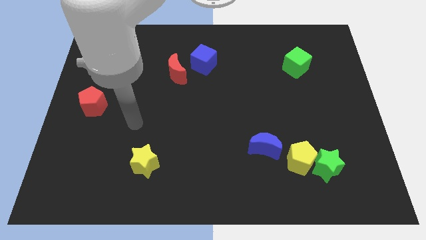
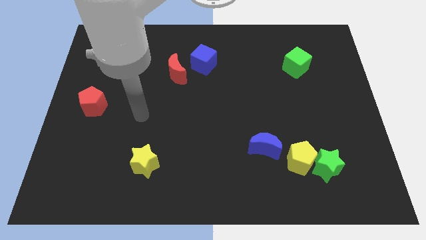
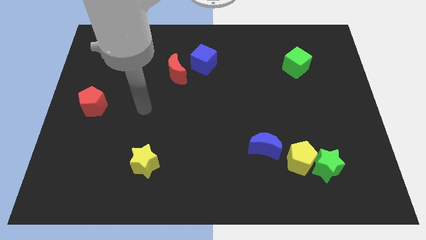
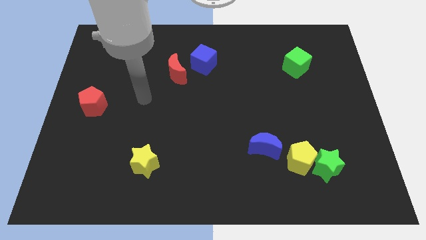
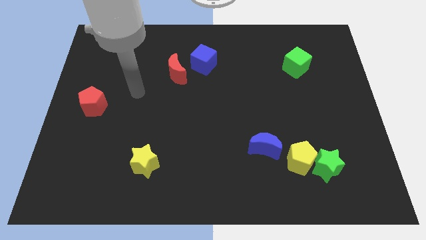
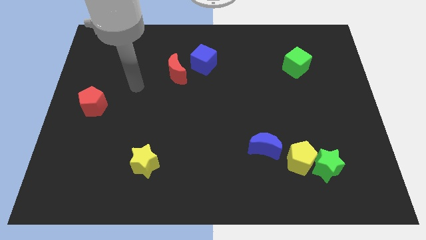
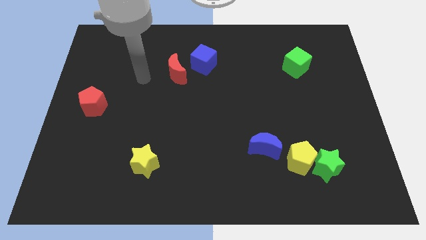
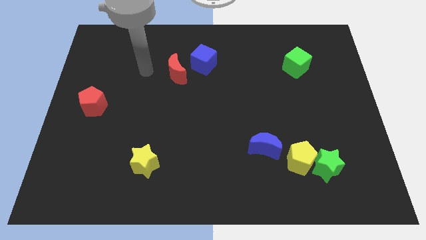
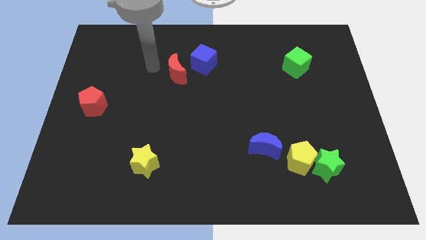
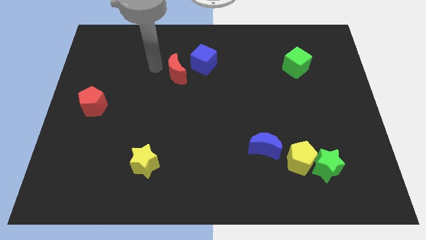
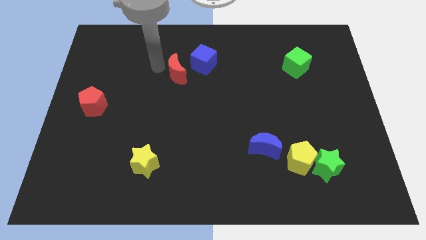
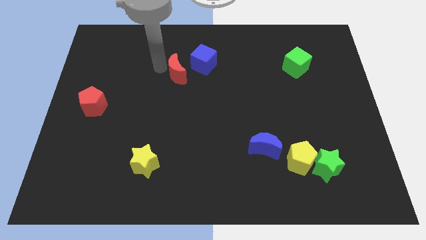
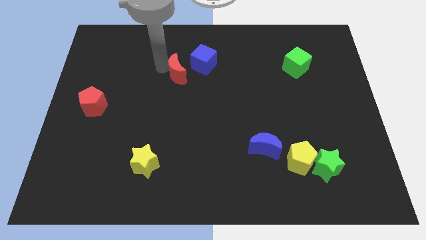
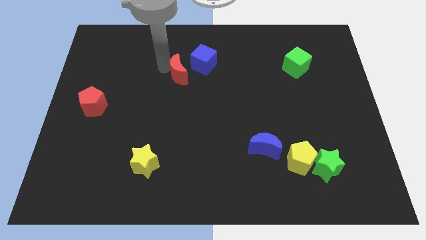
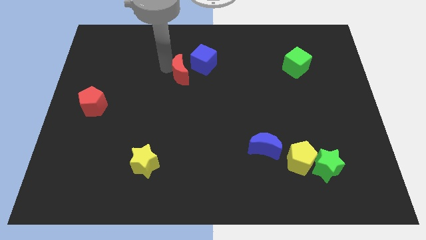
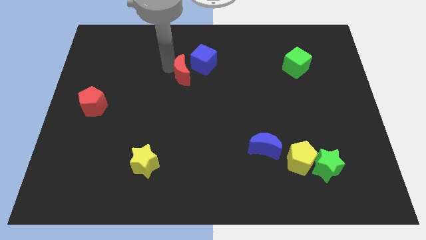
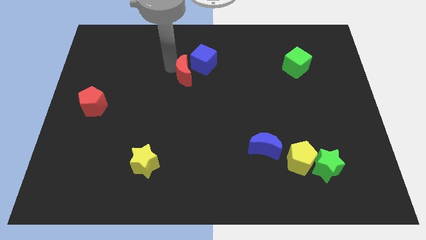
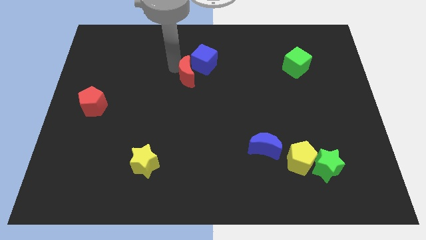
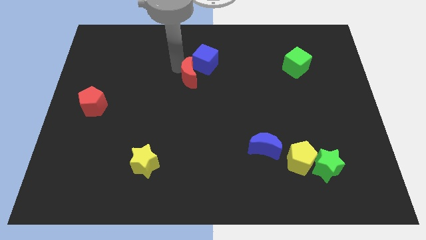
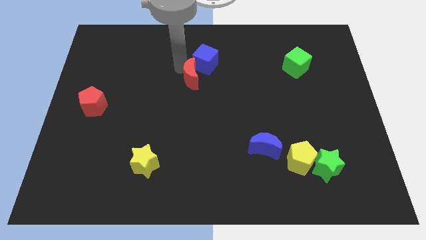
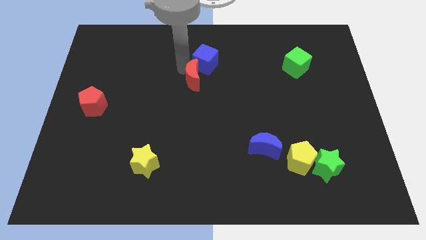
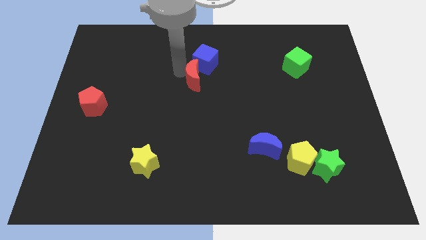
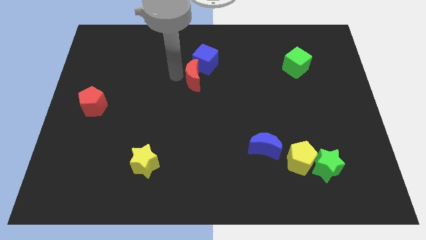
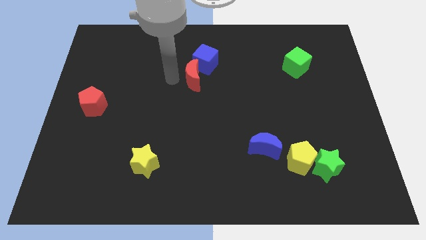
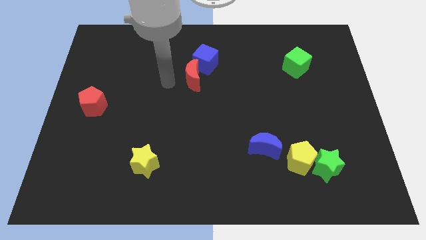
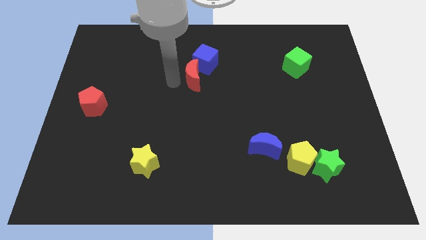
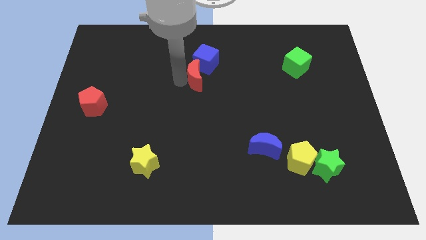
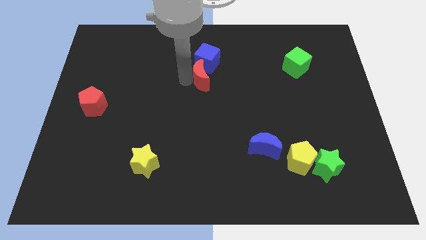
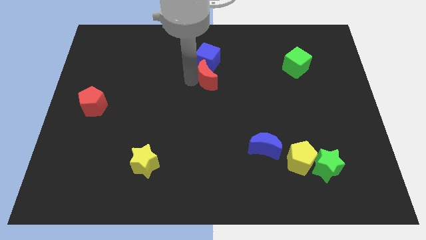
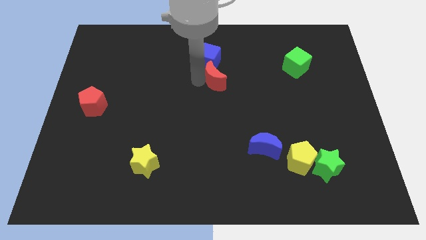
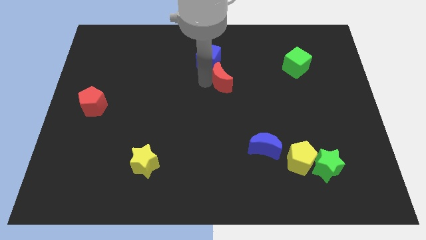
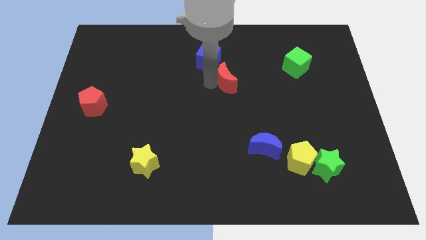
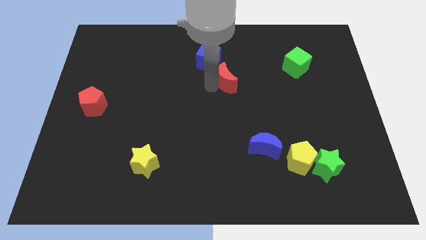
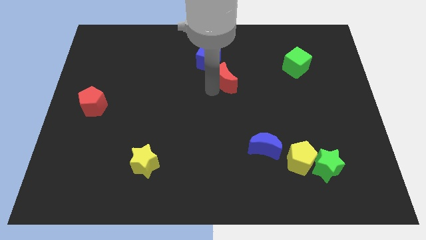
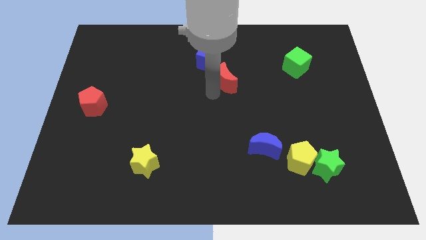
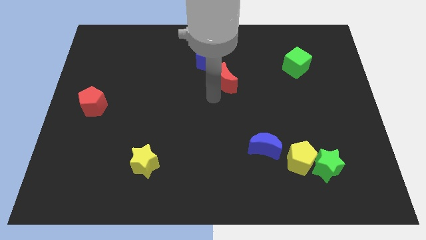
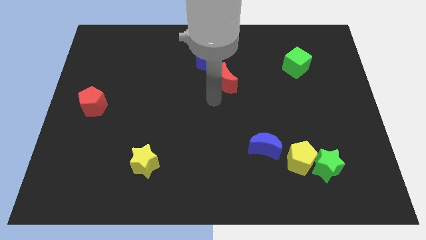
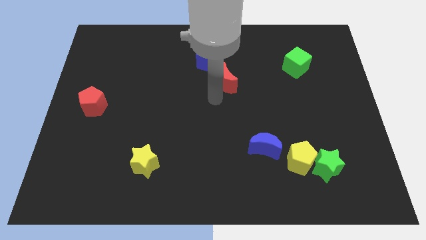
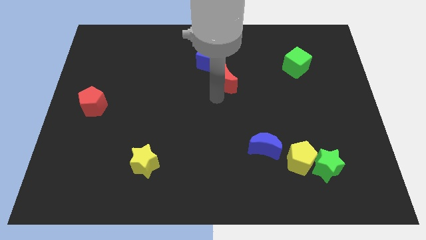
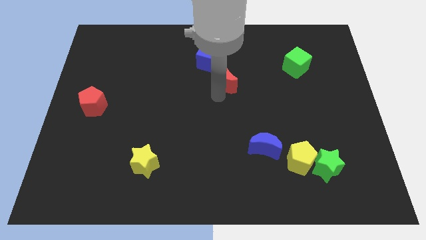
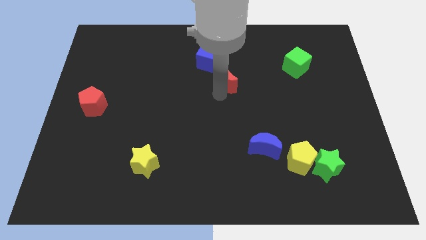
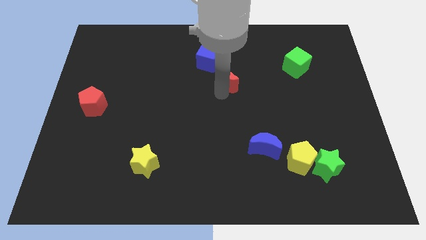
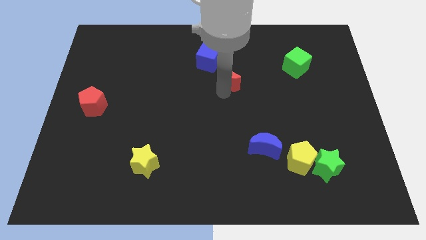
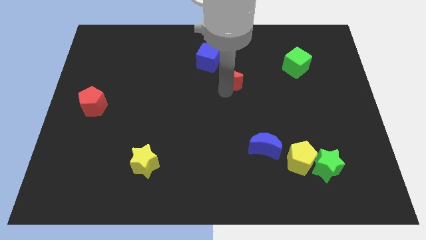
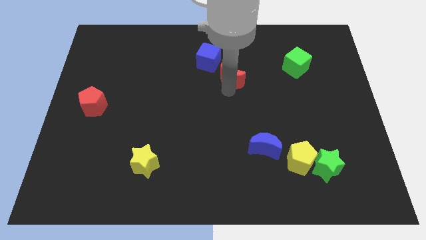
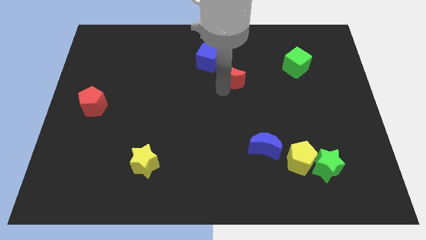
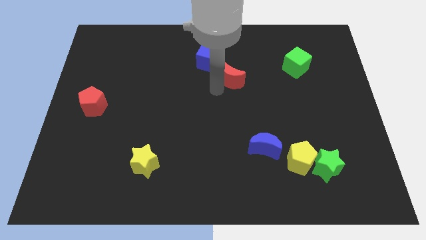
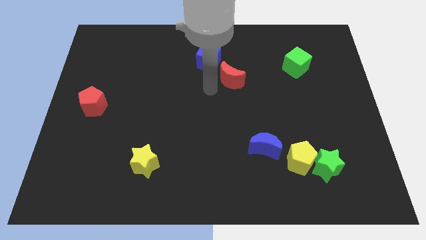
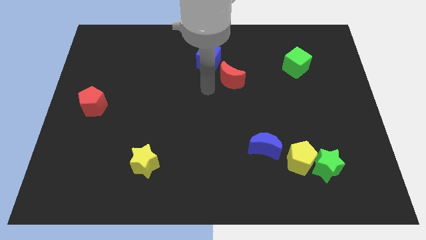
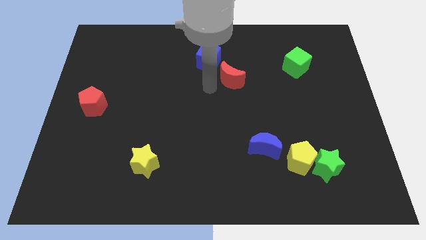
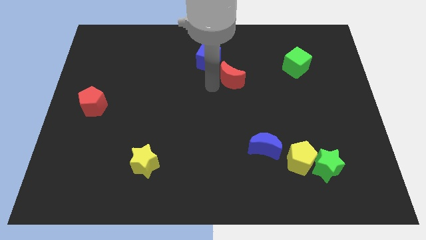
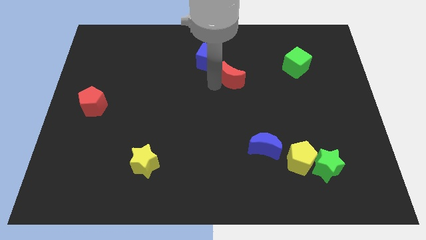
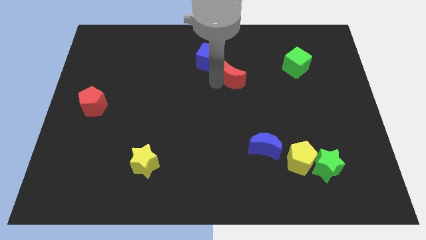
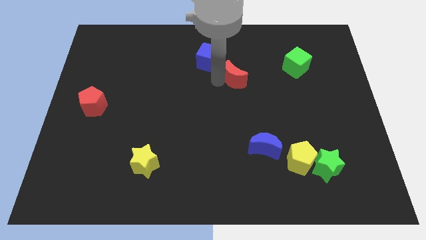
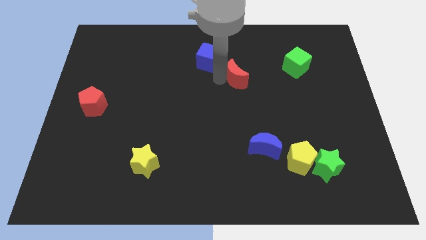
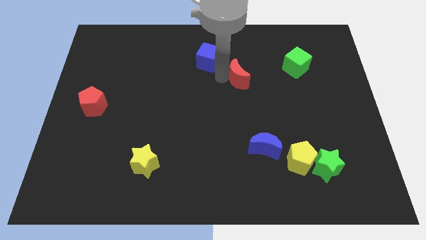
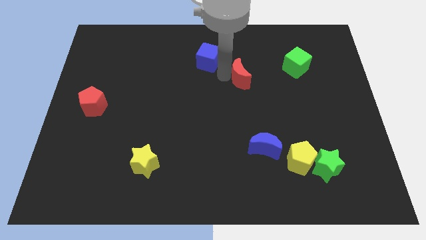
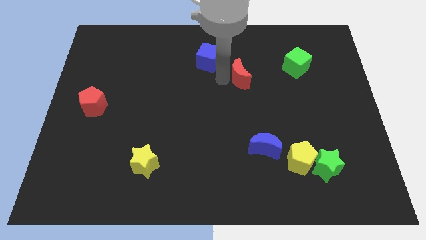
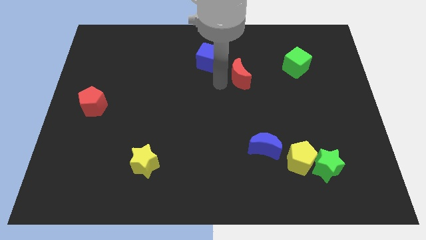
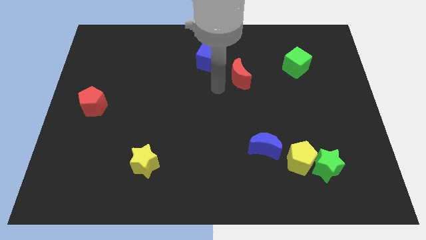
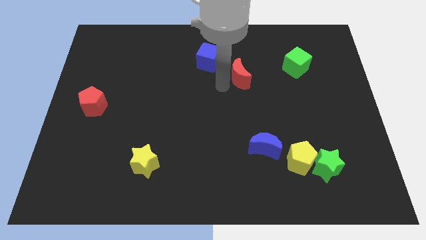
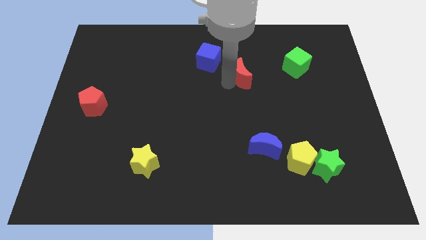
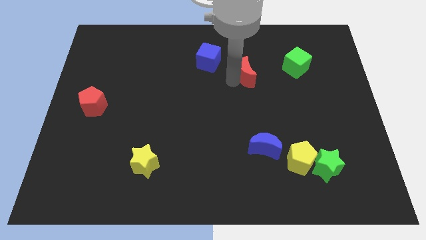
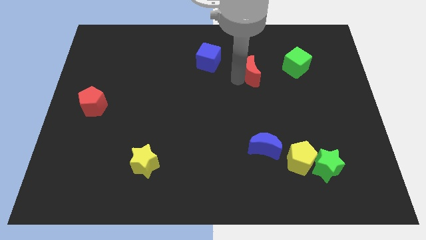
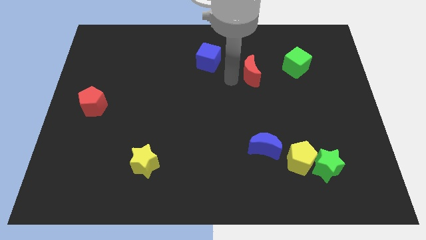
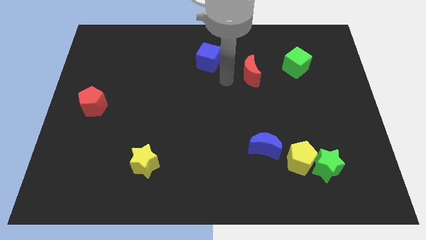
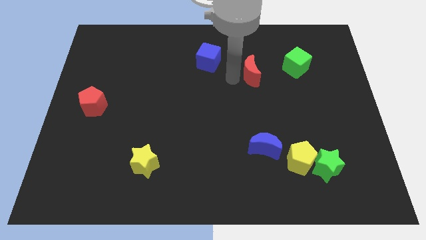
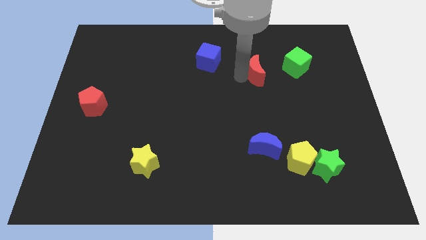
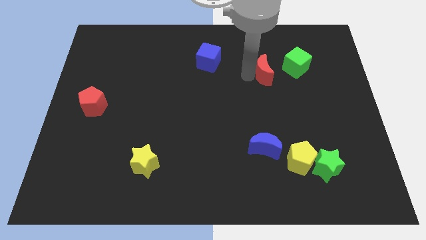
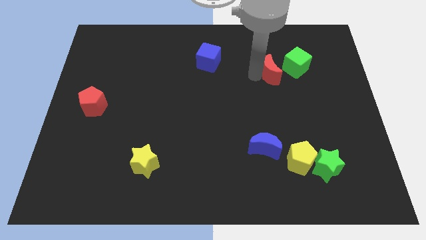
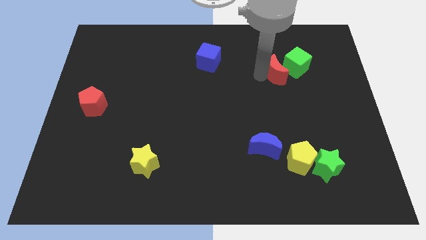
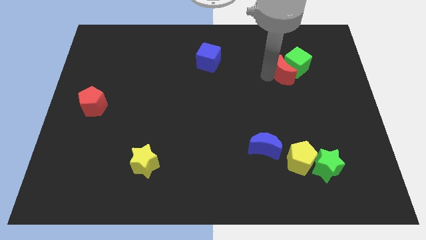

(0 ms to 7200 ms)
push the red moon to the green cube

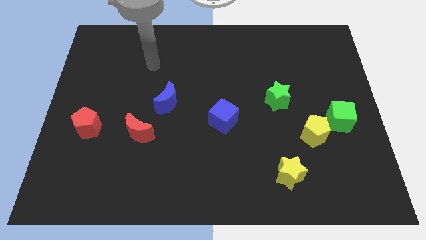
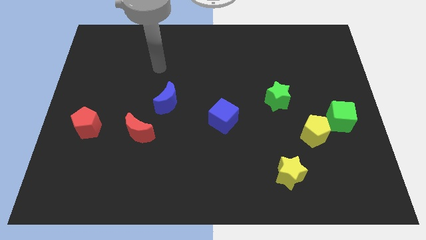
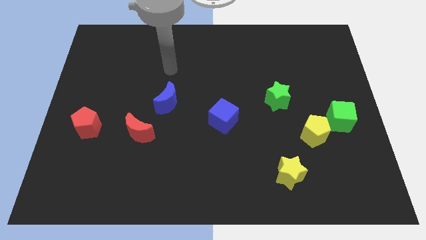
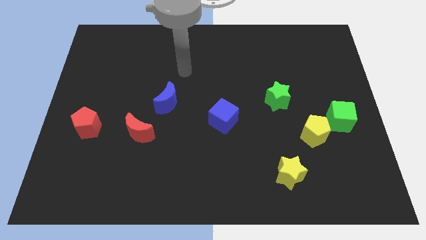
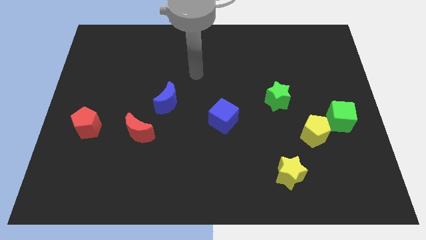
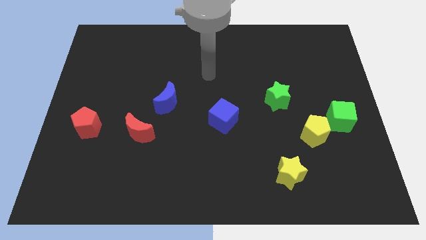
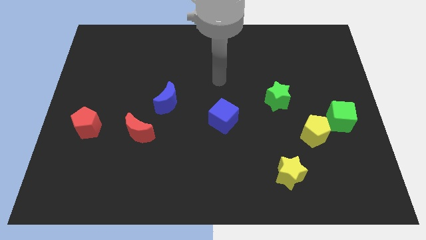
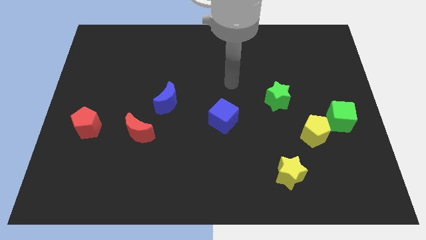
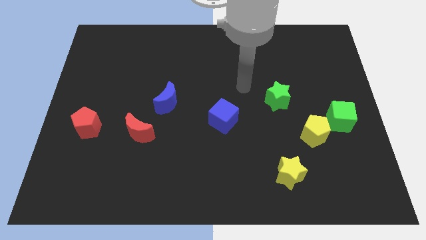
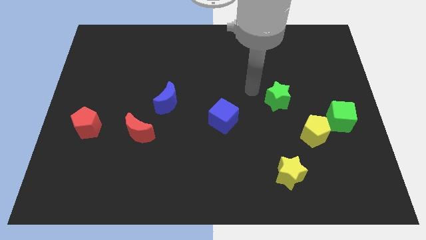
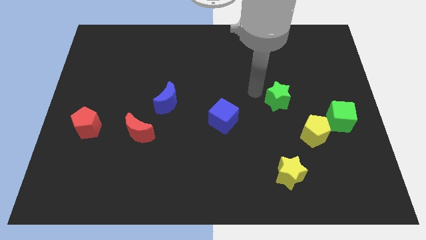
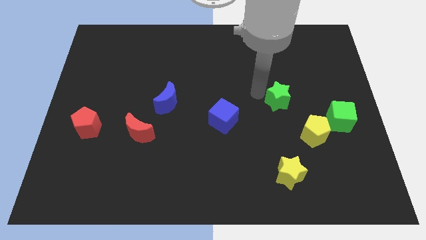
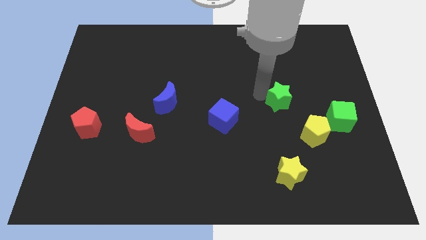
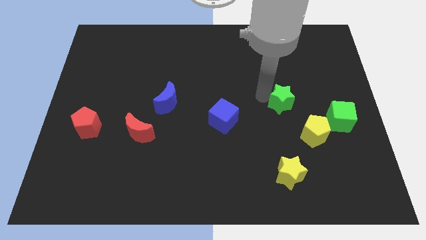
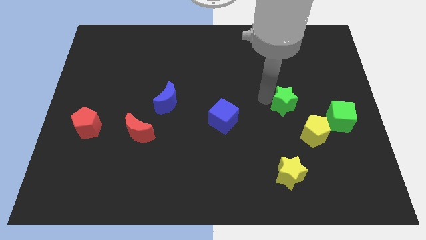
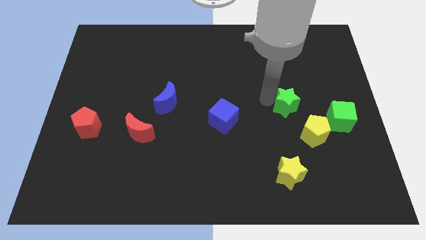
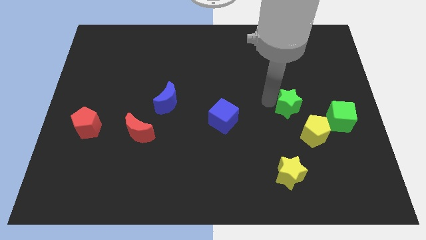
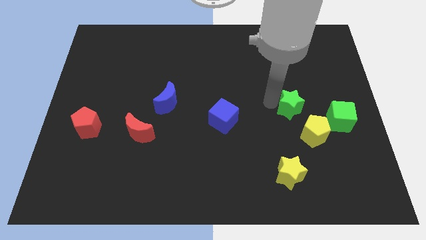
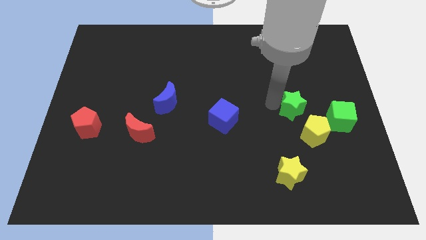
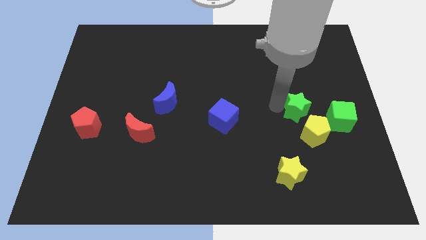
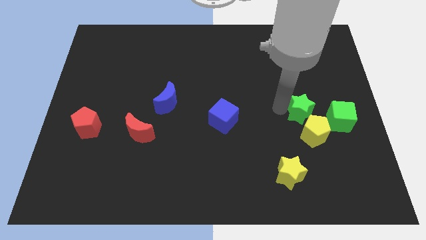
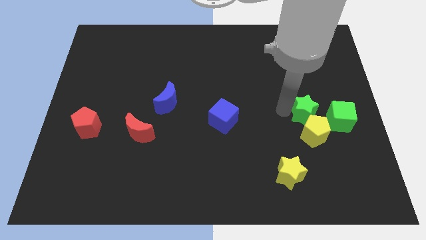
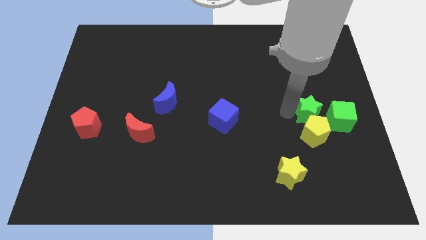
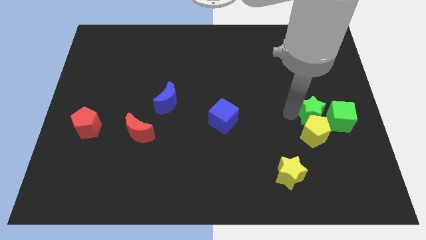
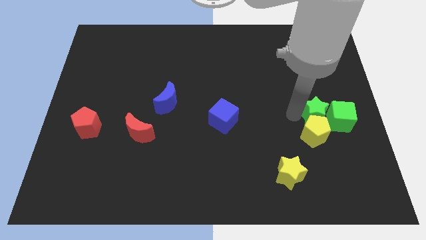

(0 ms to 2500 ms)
move the green star towards the green cube
